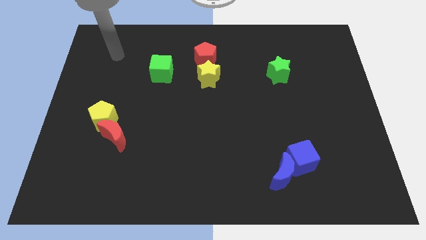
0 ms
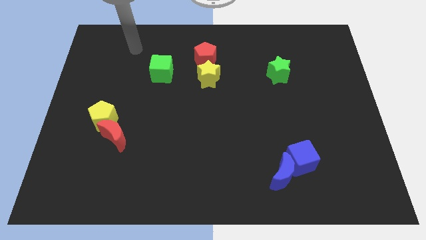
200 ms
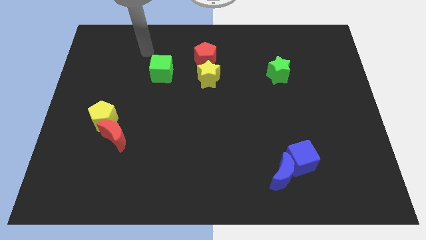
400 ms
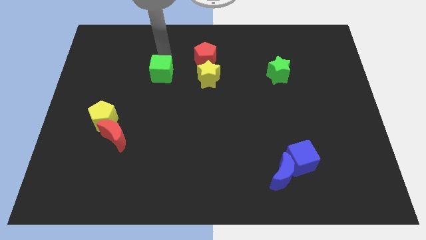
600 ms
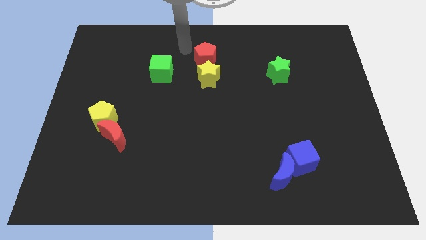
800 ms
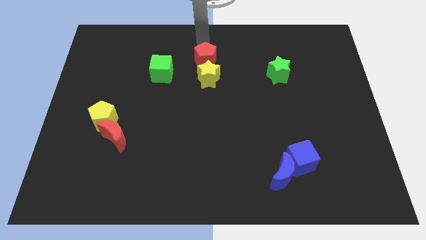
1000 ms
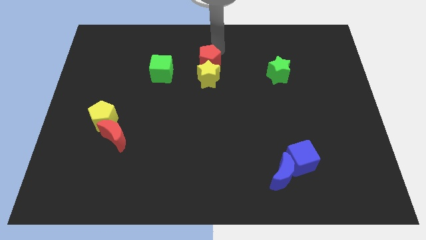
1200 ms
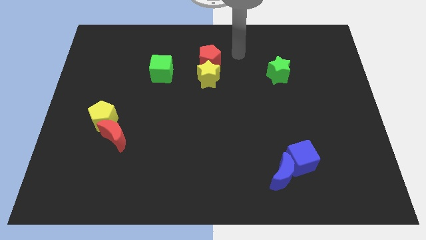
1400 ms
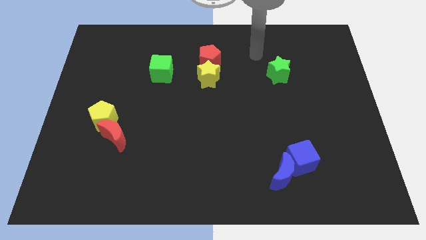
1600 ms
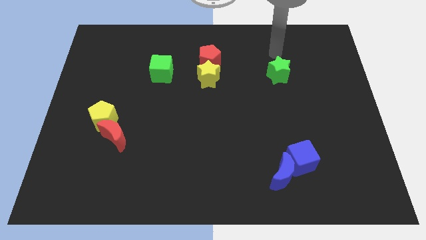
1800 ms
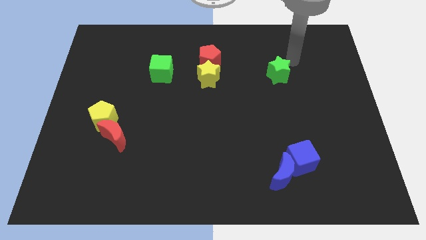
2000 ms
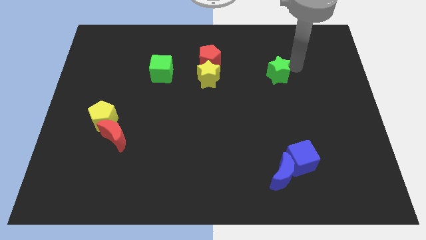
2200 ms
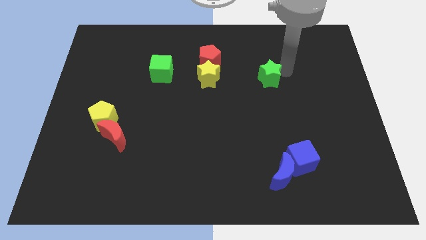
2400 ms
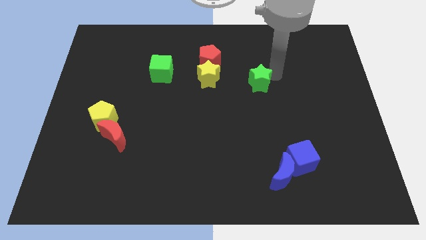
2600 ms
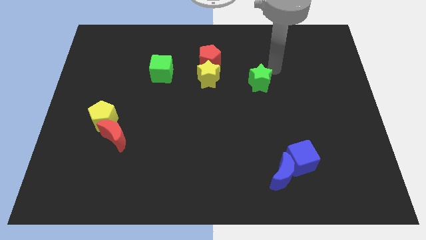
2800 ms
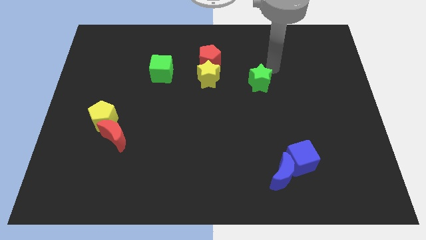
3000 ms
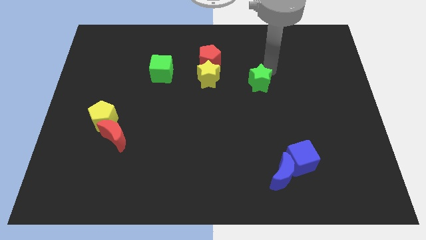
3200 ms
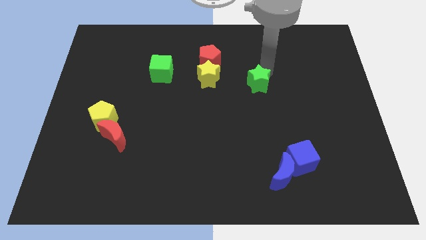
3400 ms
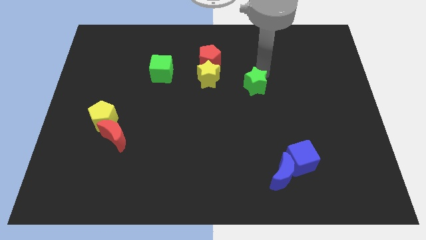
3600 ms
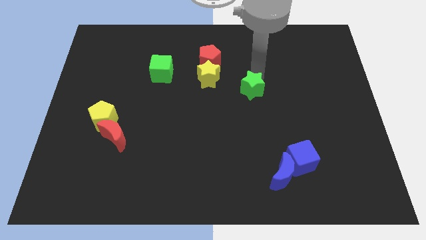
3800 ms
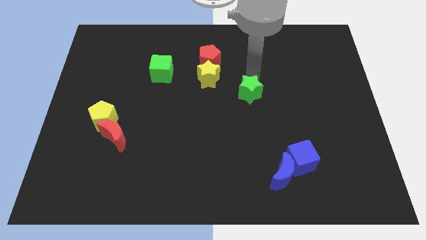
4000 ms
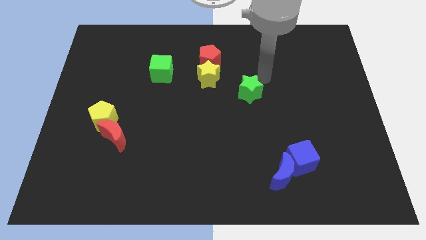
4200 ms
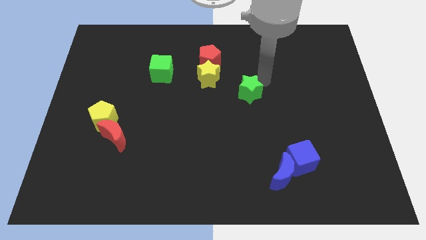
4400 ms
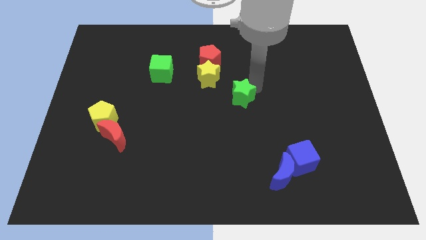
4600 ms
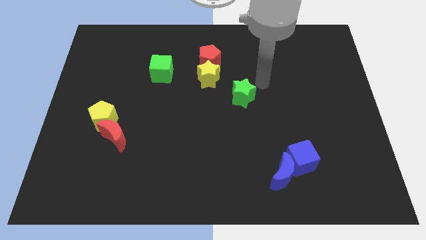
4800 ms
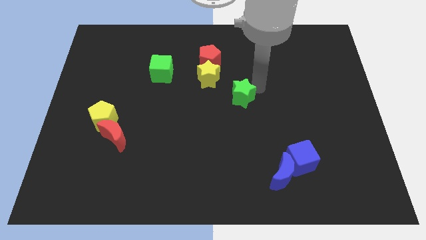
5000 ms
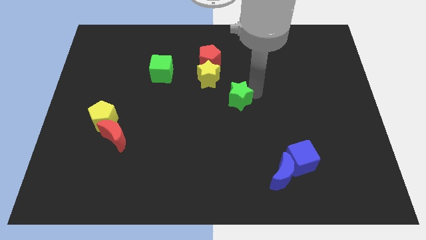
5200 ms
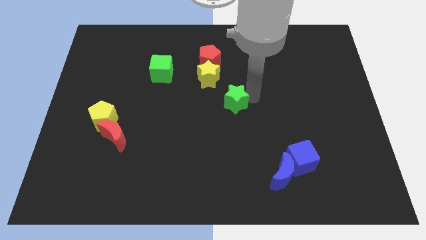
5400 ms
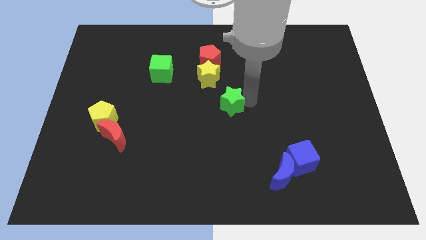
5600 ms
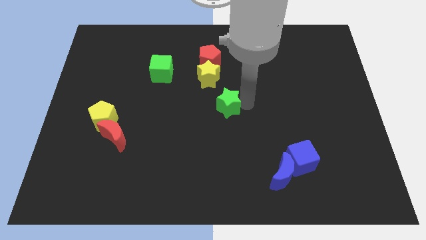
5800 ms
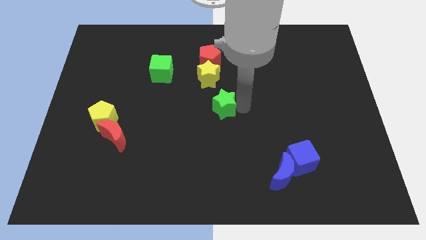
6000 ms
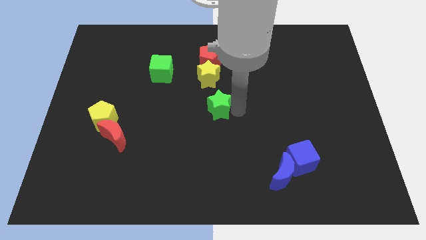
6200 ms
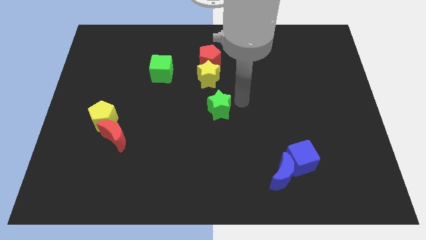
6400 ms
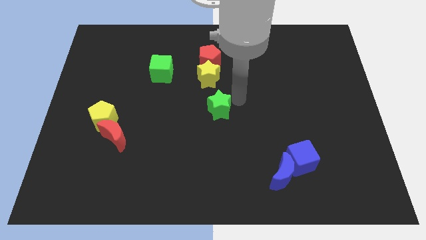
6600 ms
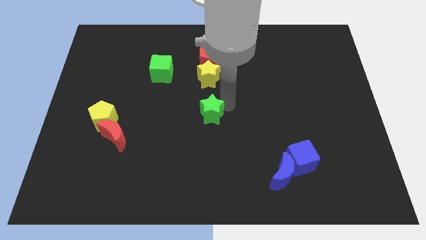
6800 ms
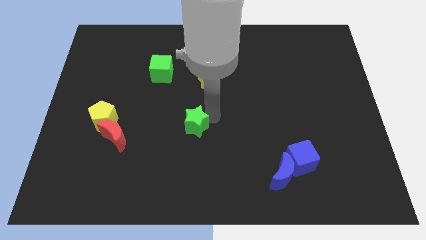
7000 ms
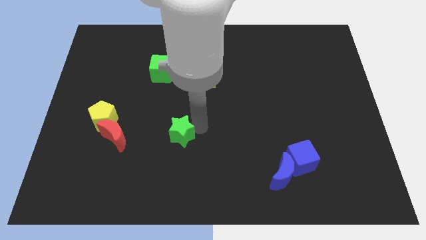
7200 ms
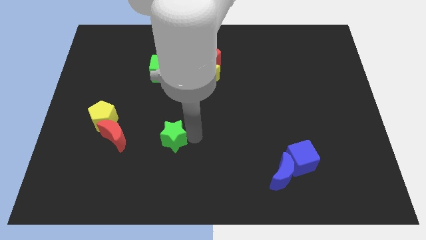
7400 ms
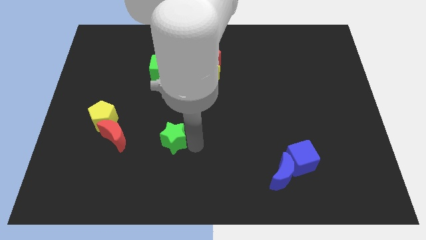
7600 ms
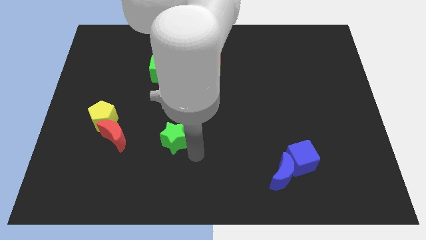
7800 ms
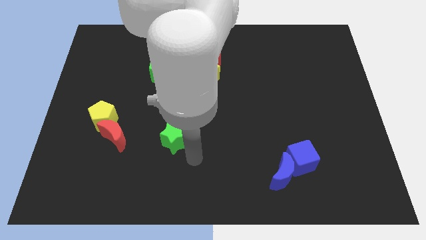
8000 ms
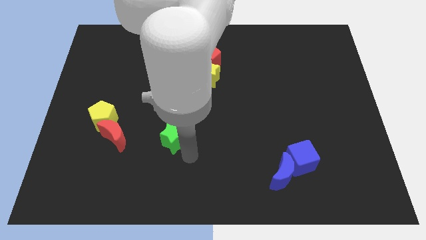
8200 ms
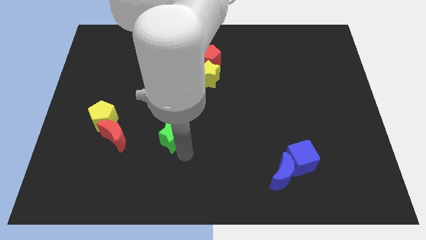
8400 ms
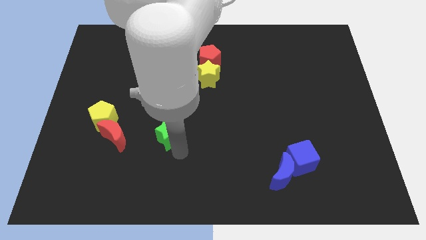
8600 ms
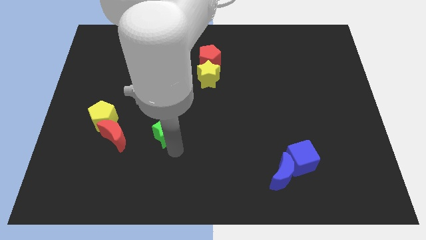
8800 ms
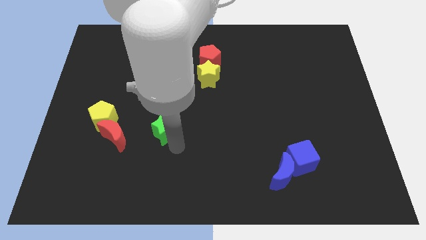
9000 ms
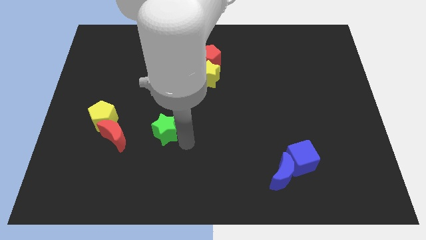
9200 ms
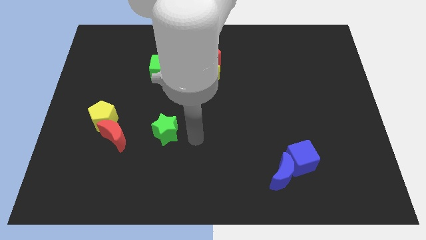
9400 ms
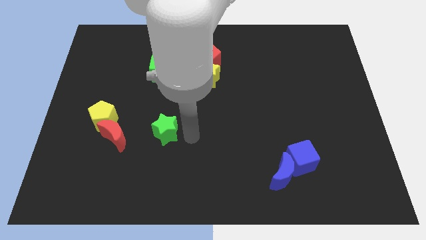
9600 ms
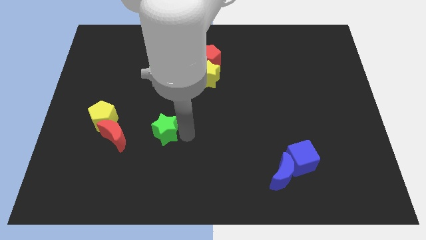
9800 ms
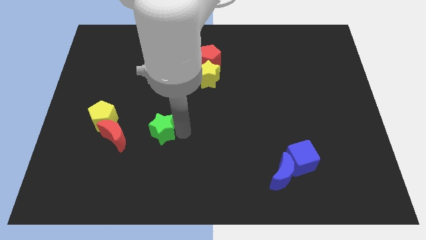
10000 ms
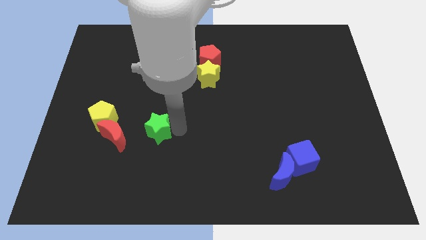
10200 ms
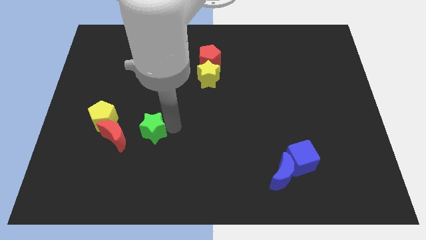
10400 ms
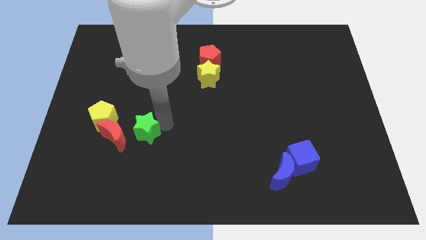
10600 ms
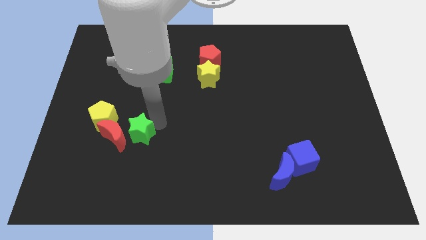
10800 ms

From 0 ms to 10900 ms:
slide the green star to the red moon

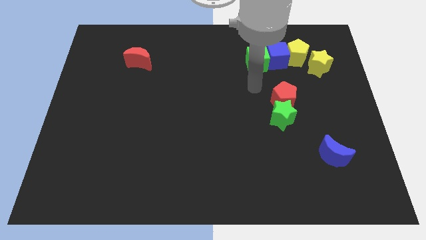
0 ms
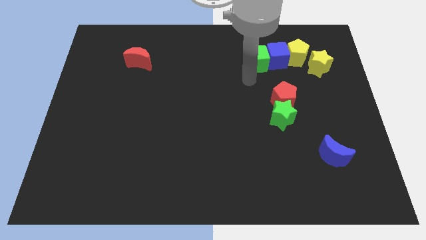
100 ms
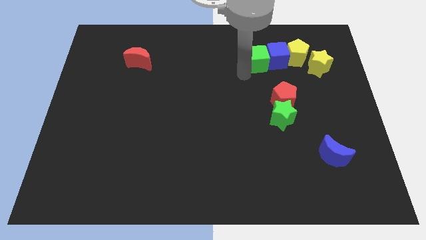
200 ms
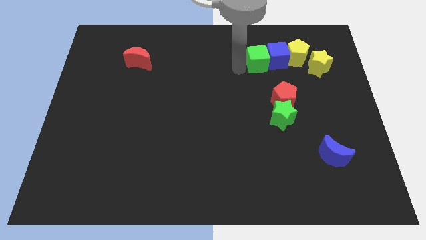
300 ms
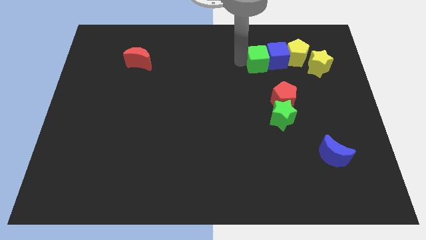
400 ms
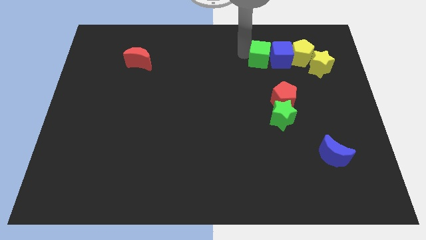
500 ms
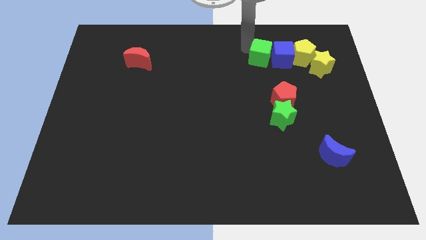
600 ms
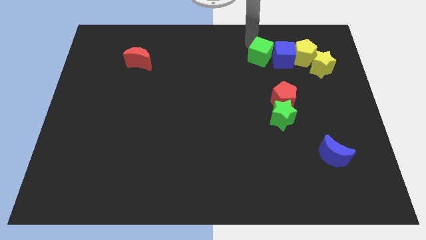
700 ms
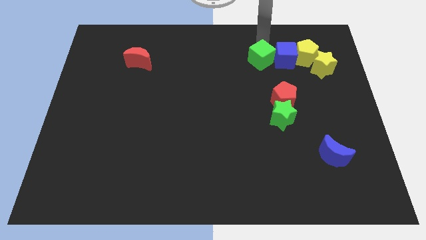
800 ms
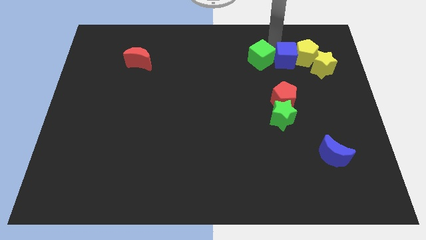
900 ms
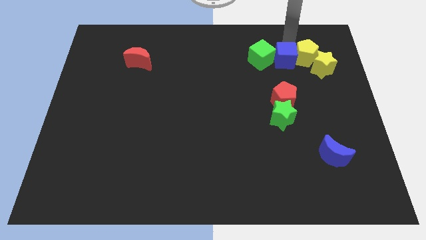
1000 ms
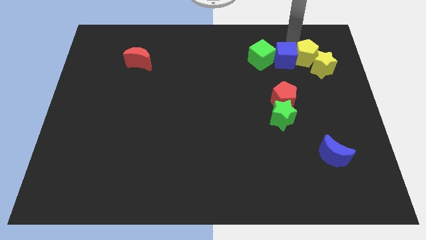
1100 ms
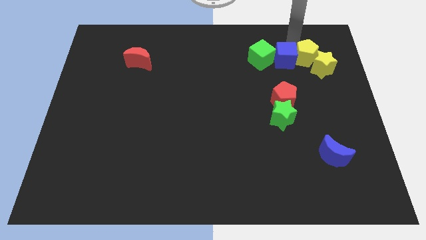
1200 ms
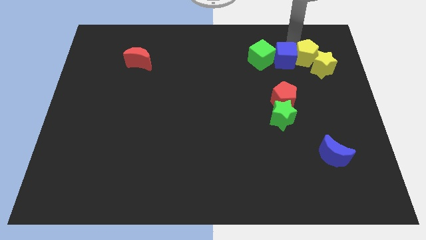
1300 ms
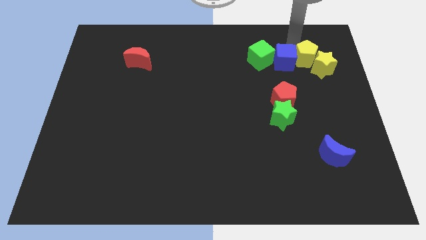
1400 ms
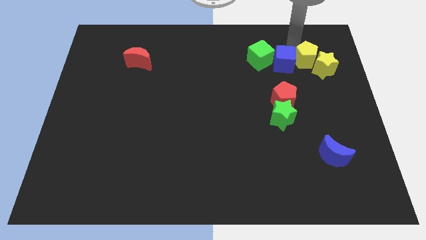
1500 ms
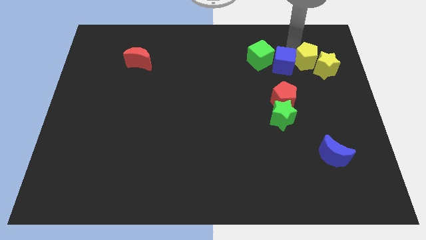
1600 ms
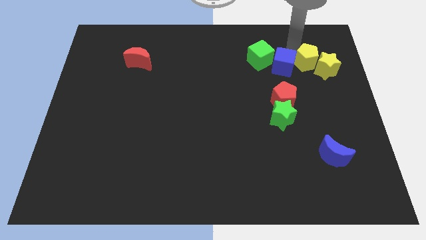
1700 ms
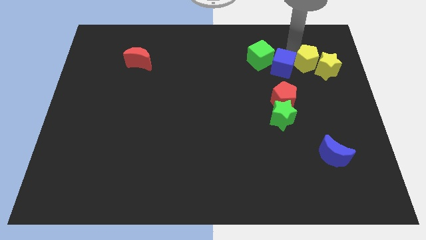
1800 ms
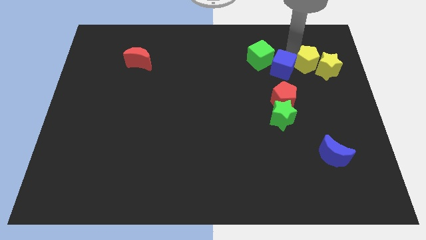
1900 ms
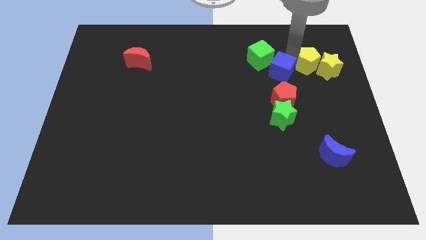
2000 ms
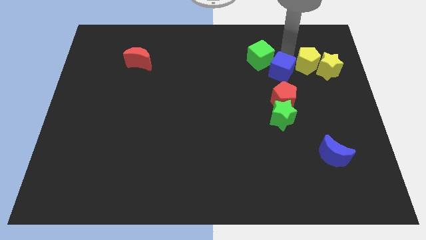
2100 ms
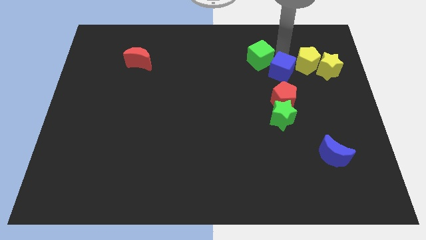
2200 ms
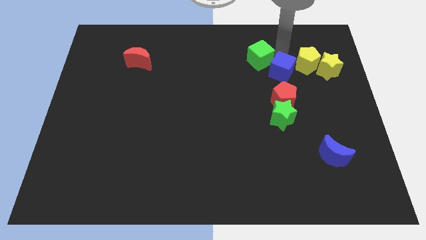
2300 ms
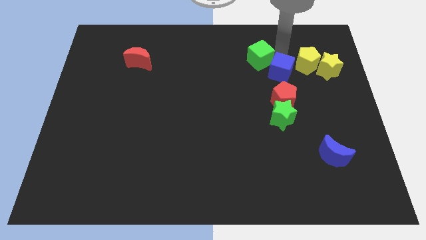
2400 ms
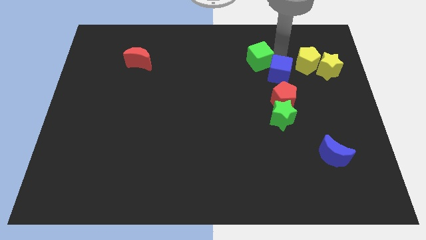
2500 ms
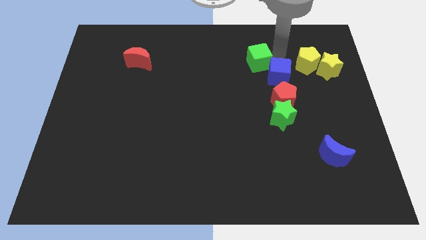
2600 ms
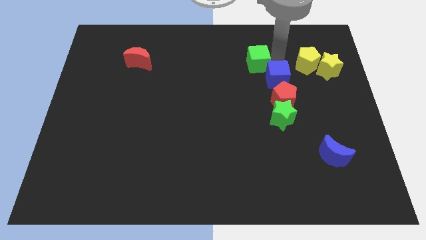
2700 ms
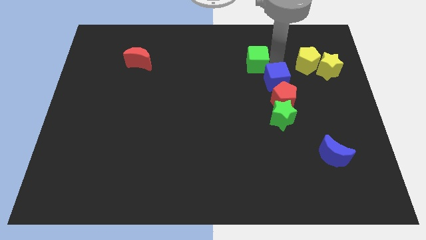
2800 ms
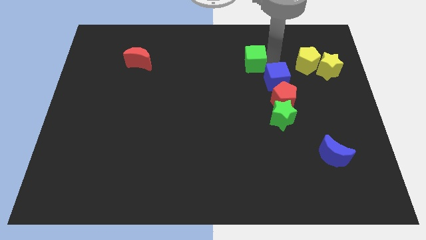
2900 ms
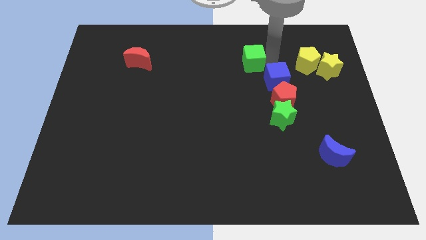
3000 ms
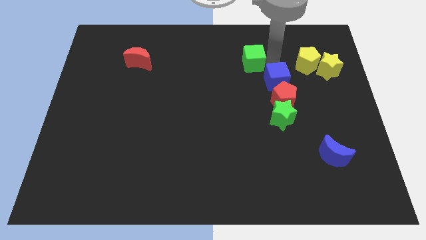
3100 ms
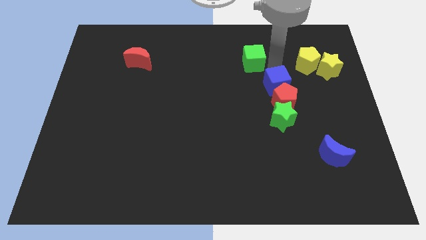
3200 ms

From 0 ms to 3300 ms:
slide the blue cube next to the red pentagon
